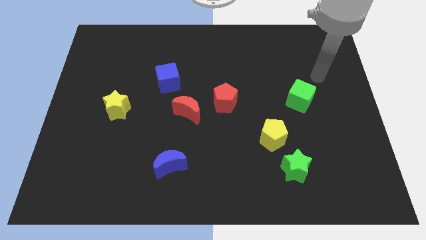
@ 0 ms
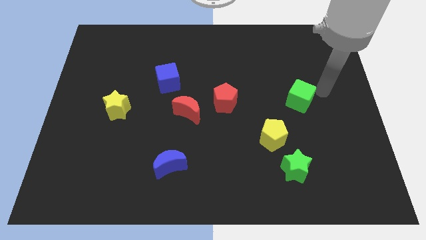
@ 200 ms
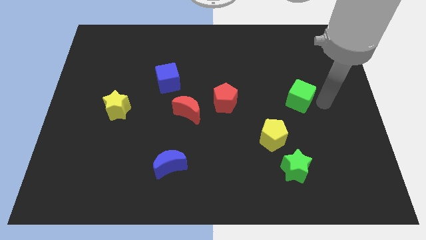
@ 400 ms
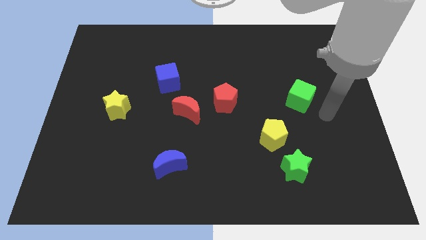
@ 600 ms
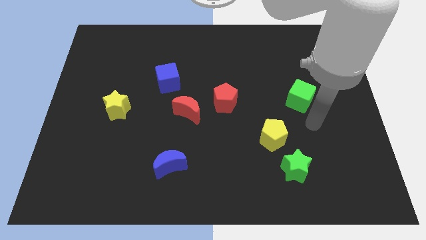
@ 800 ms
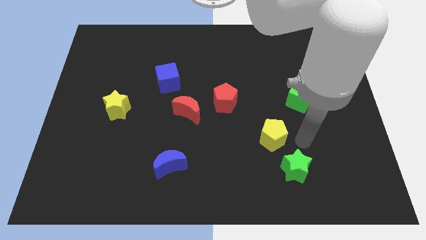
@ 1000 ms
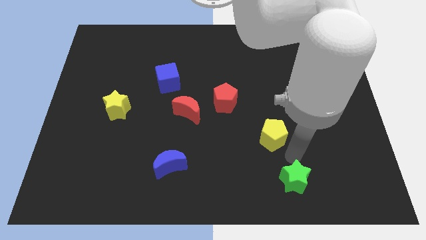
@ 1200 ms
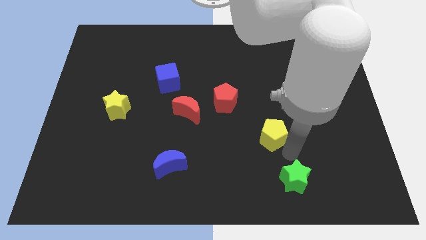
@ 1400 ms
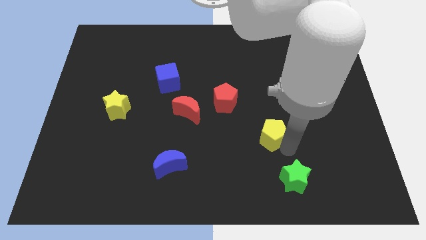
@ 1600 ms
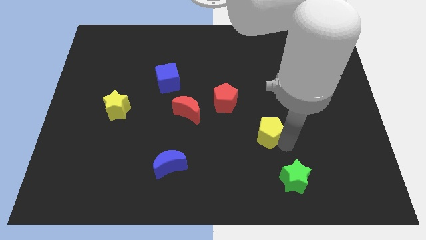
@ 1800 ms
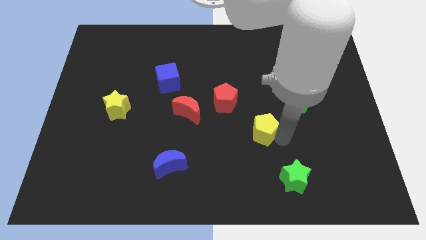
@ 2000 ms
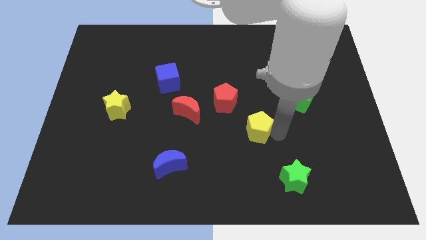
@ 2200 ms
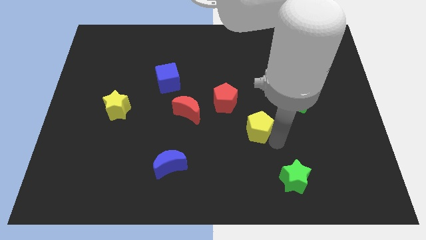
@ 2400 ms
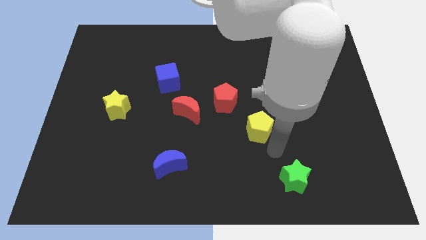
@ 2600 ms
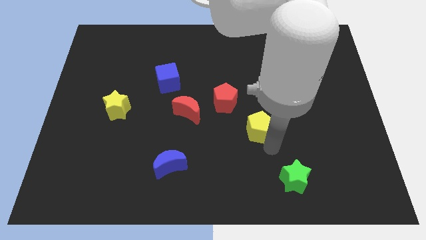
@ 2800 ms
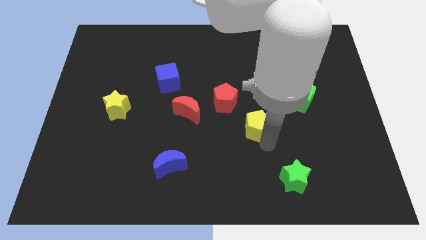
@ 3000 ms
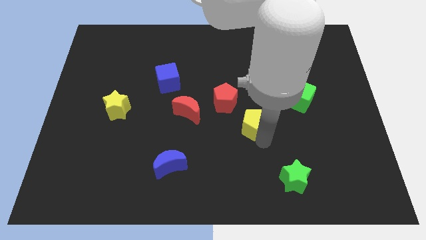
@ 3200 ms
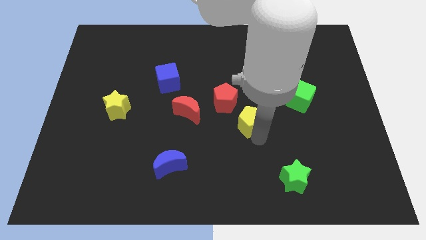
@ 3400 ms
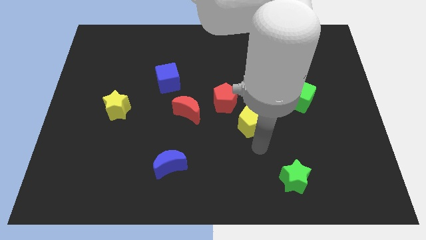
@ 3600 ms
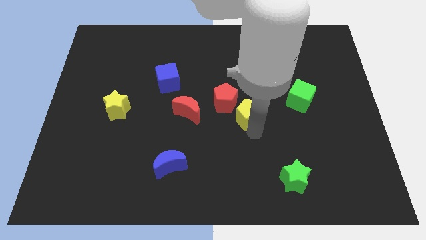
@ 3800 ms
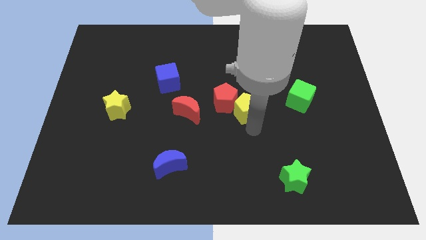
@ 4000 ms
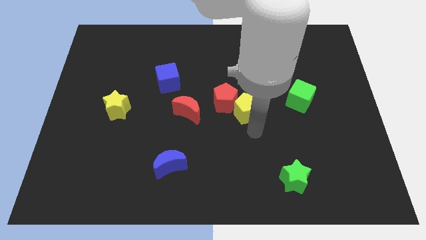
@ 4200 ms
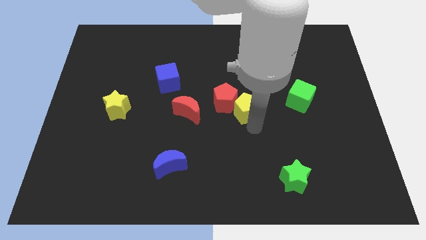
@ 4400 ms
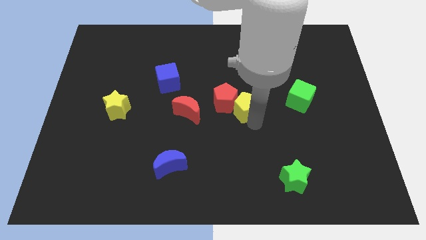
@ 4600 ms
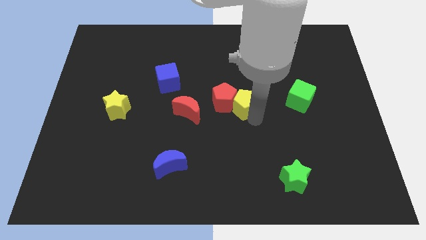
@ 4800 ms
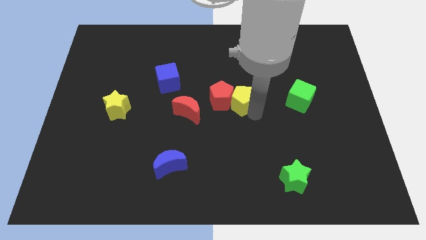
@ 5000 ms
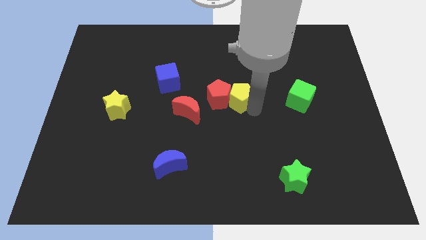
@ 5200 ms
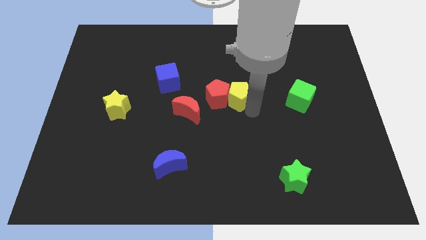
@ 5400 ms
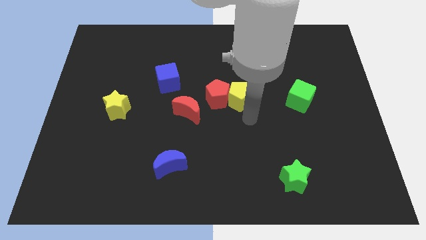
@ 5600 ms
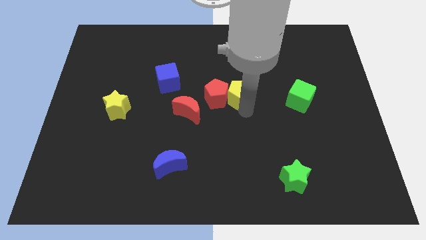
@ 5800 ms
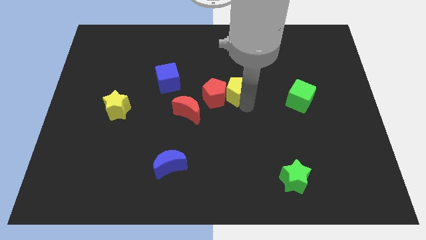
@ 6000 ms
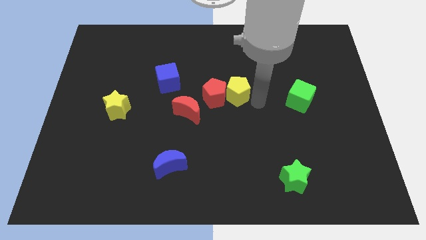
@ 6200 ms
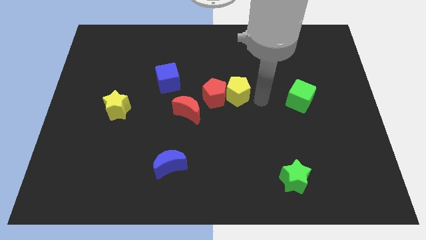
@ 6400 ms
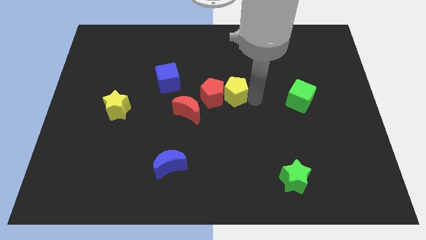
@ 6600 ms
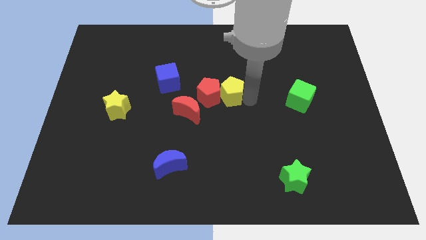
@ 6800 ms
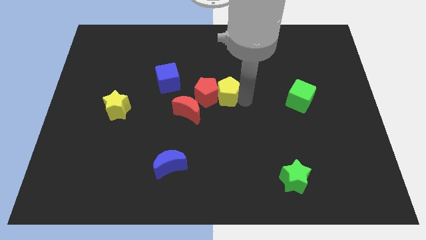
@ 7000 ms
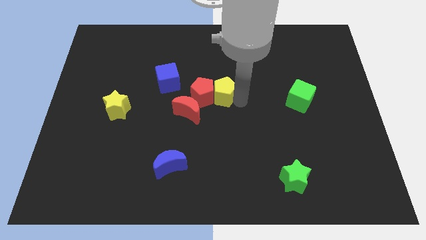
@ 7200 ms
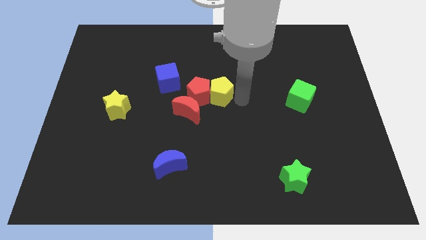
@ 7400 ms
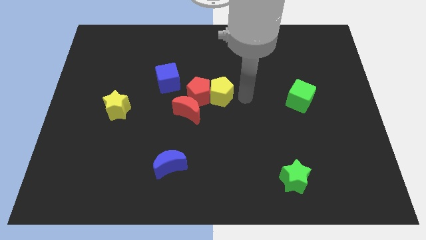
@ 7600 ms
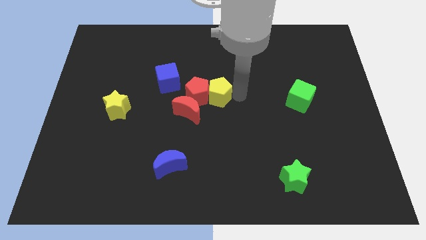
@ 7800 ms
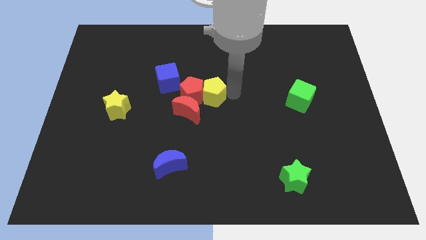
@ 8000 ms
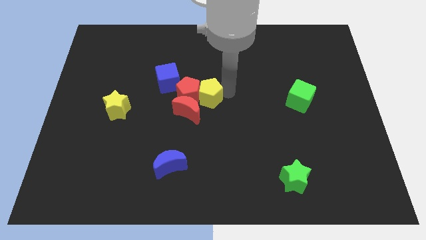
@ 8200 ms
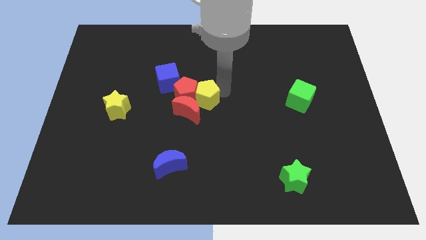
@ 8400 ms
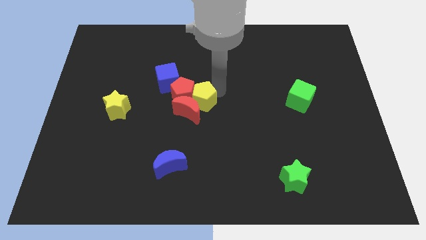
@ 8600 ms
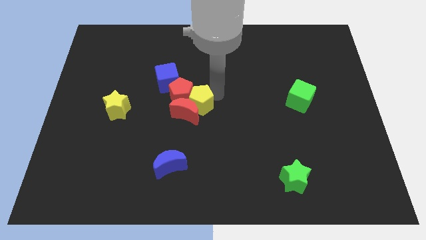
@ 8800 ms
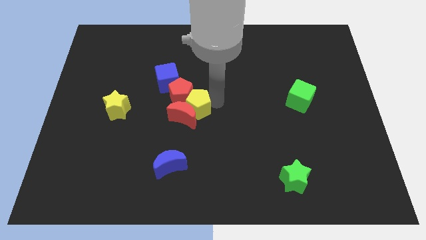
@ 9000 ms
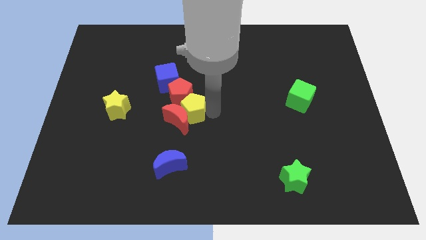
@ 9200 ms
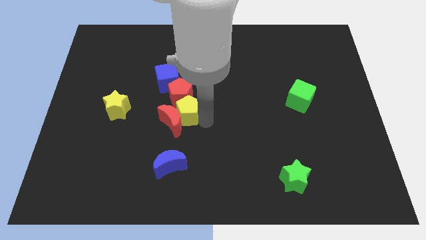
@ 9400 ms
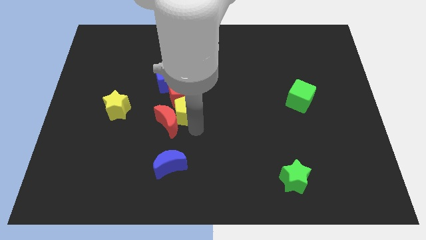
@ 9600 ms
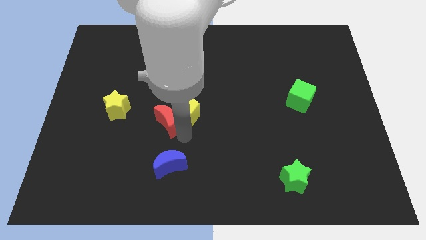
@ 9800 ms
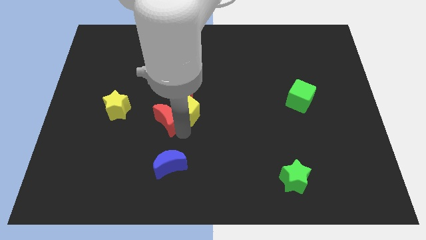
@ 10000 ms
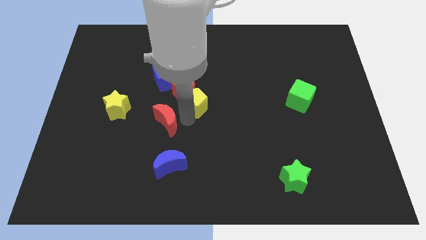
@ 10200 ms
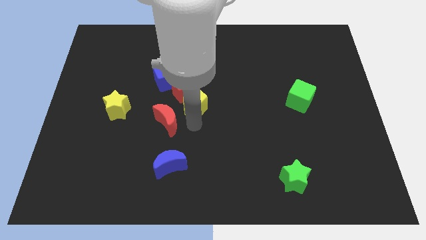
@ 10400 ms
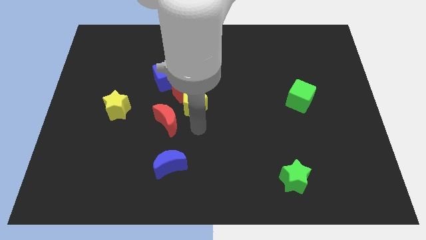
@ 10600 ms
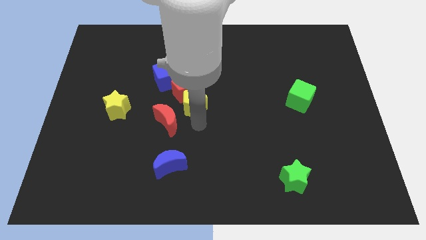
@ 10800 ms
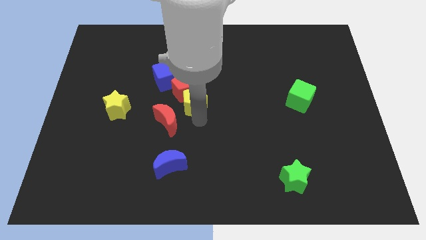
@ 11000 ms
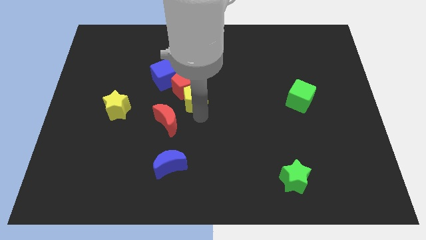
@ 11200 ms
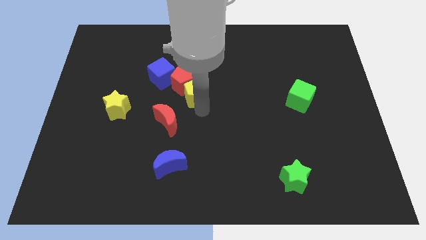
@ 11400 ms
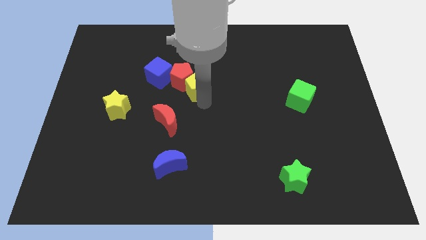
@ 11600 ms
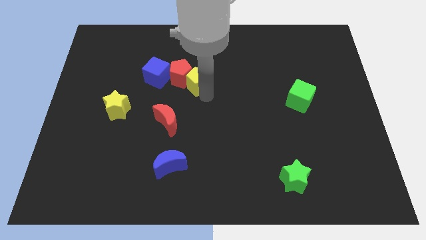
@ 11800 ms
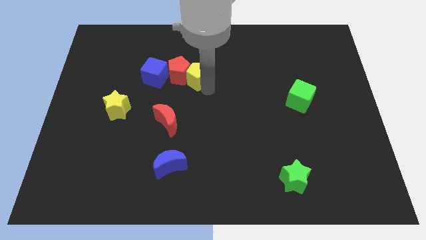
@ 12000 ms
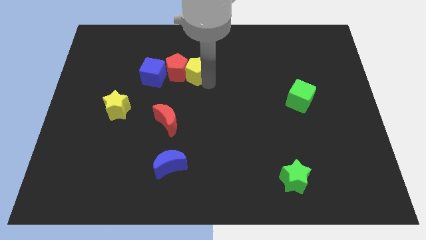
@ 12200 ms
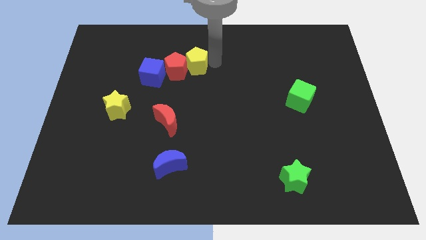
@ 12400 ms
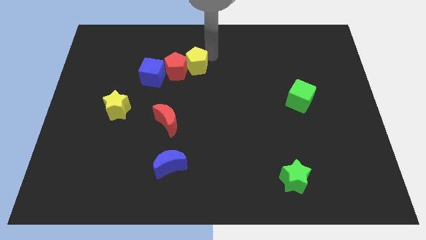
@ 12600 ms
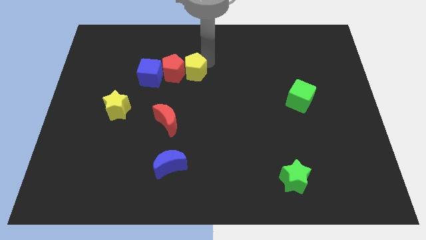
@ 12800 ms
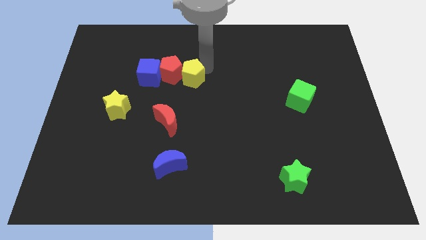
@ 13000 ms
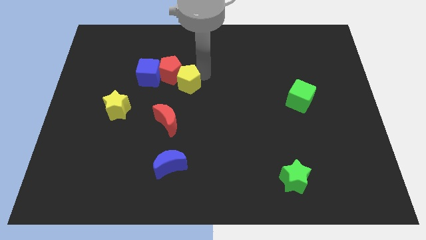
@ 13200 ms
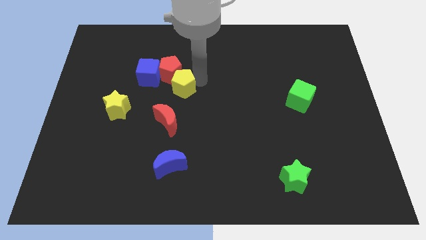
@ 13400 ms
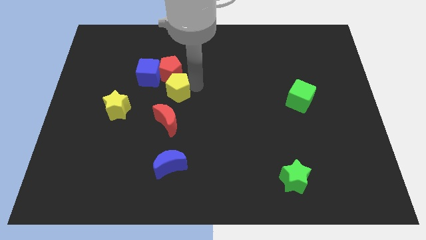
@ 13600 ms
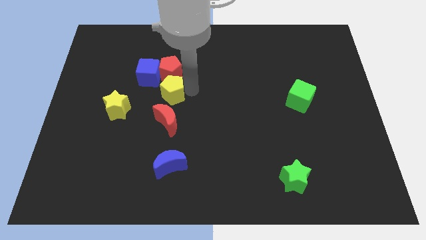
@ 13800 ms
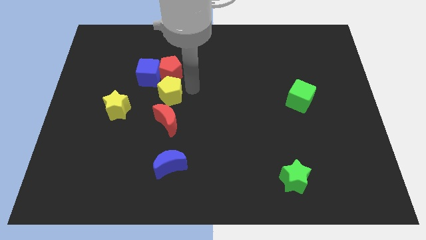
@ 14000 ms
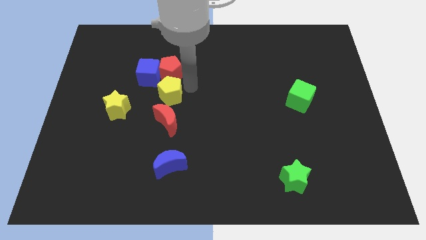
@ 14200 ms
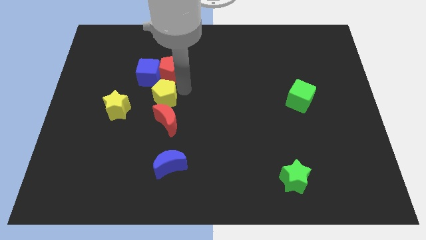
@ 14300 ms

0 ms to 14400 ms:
push the yellow pentagon to the top left side of the red moon

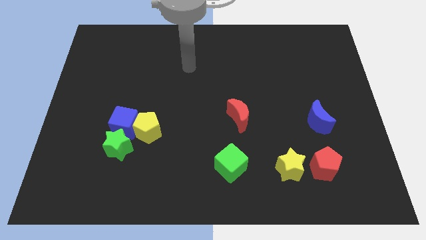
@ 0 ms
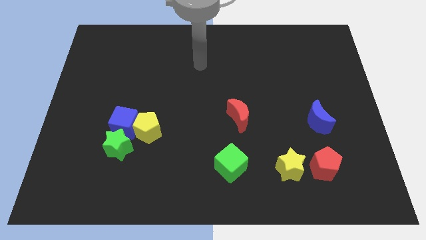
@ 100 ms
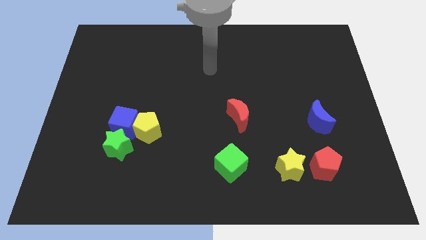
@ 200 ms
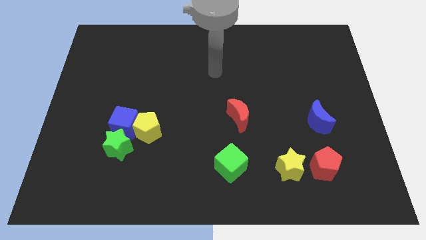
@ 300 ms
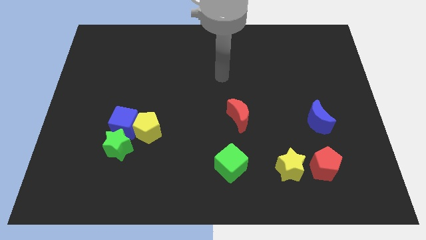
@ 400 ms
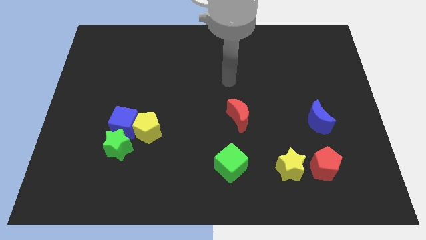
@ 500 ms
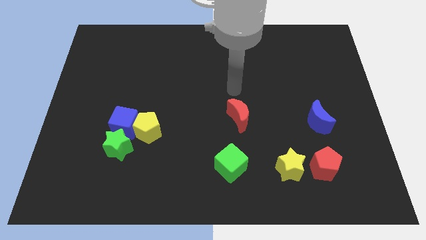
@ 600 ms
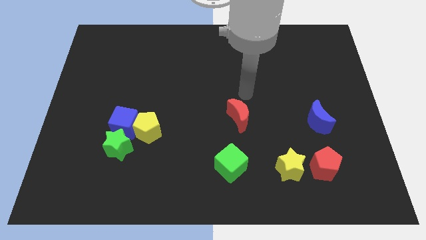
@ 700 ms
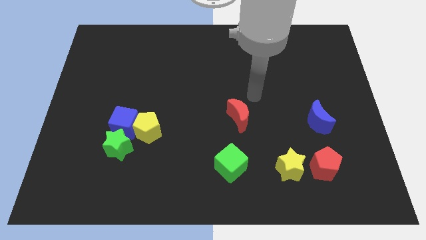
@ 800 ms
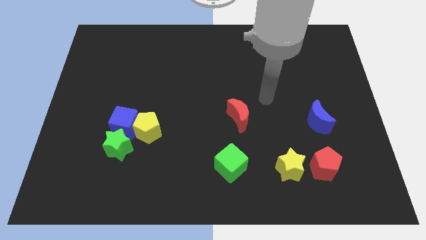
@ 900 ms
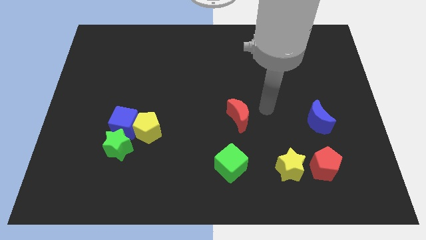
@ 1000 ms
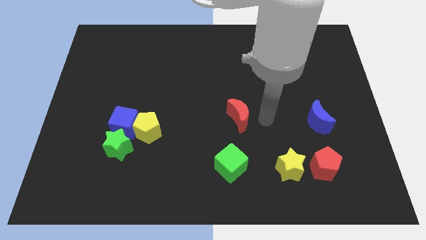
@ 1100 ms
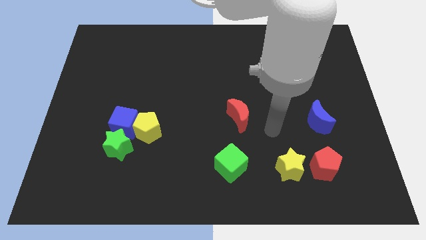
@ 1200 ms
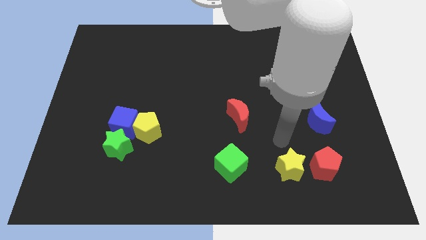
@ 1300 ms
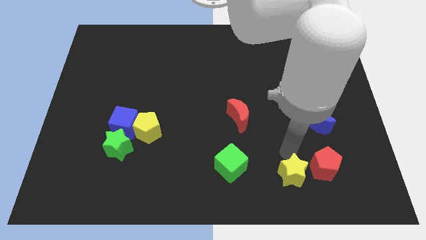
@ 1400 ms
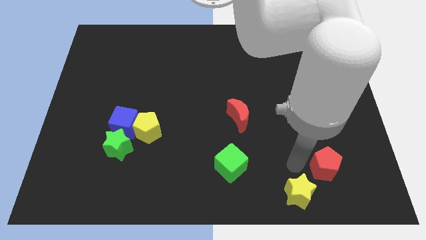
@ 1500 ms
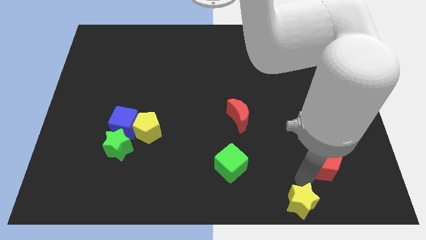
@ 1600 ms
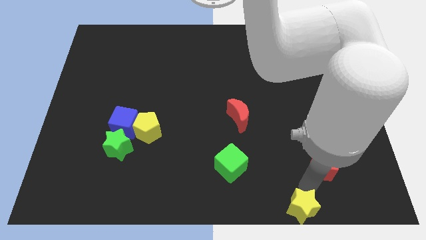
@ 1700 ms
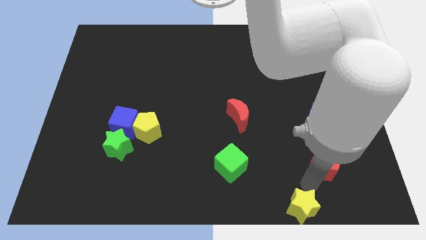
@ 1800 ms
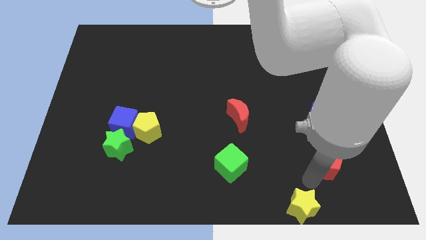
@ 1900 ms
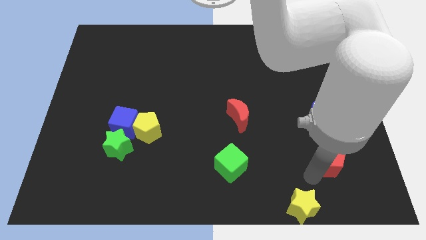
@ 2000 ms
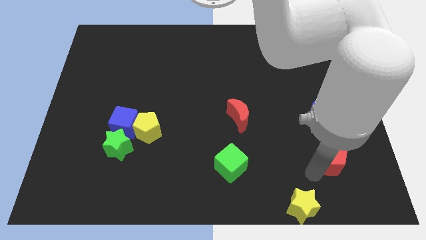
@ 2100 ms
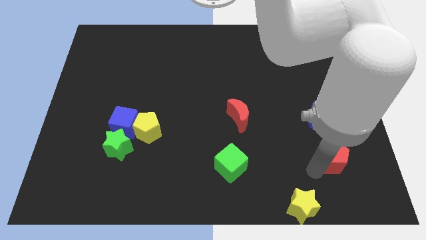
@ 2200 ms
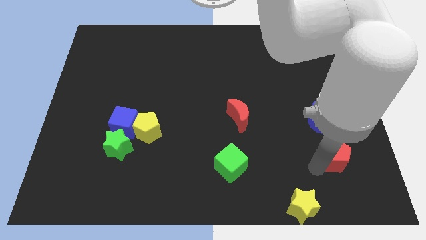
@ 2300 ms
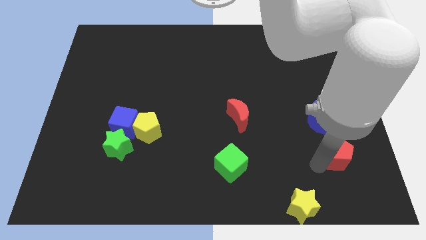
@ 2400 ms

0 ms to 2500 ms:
slide the red pentagon diagonally down and to the right of the blue moon
